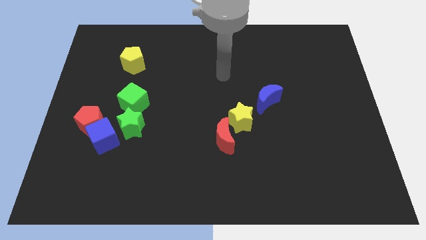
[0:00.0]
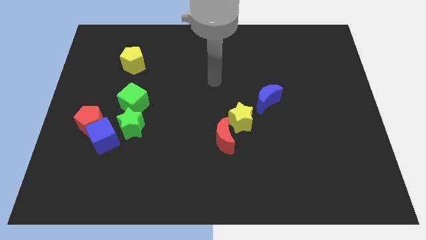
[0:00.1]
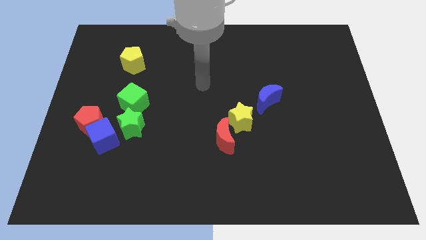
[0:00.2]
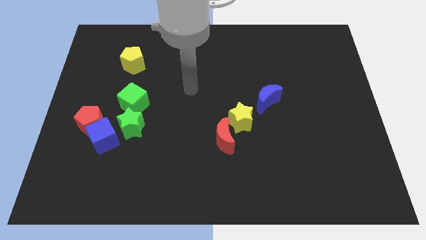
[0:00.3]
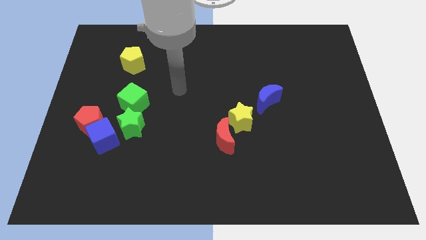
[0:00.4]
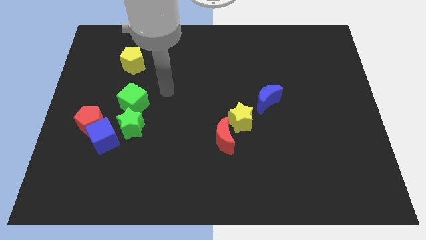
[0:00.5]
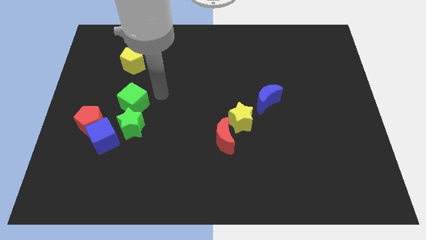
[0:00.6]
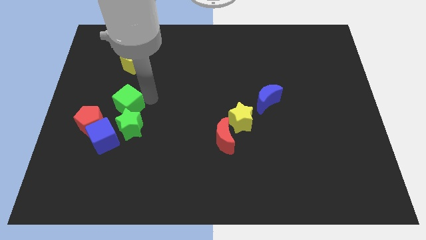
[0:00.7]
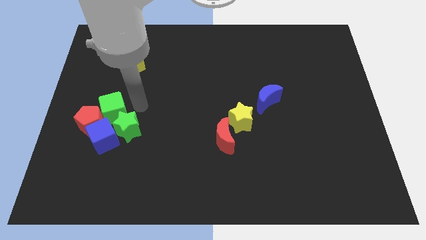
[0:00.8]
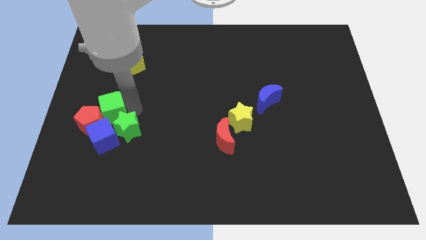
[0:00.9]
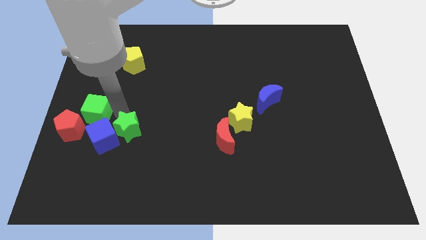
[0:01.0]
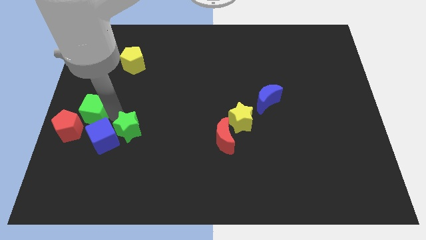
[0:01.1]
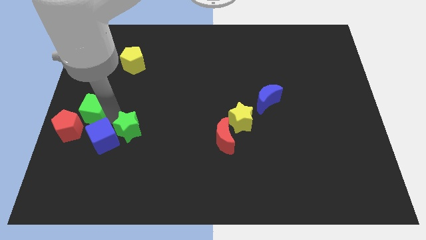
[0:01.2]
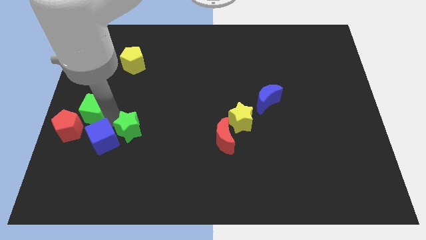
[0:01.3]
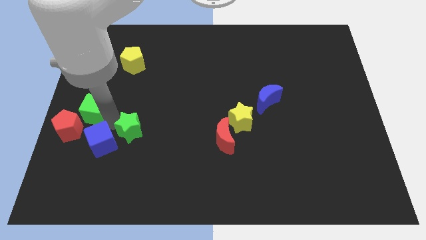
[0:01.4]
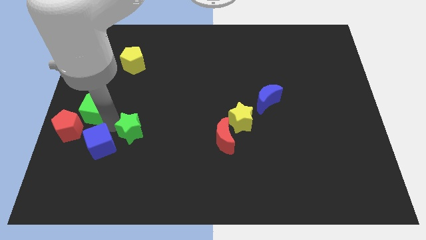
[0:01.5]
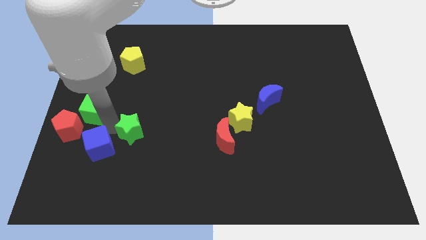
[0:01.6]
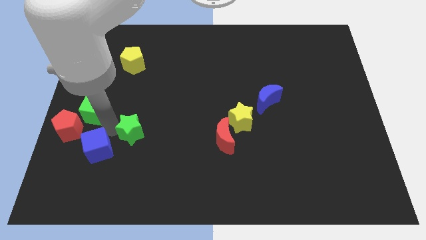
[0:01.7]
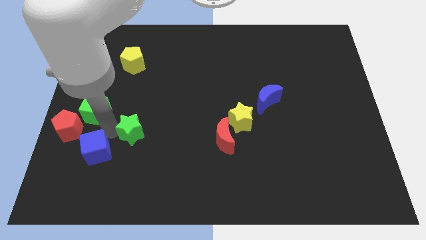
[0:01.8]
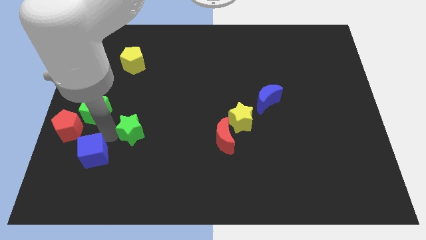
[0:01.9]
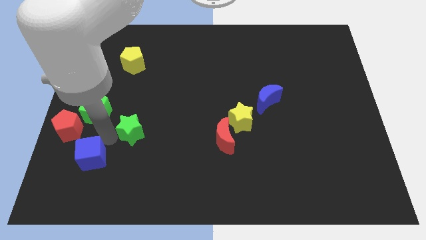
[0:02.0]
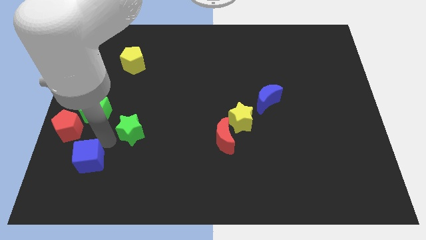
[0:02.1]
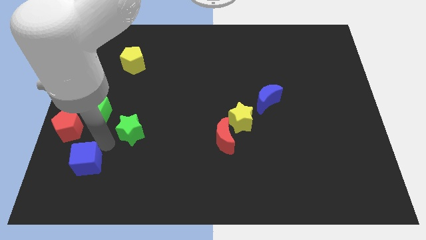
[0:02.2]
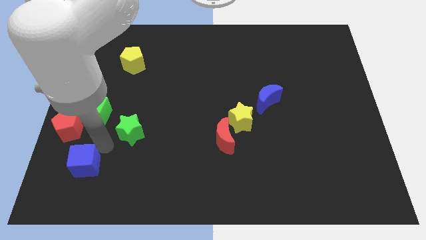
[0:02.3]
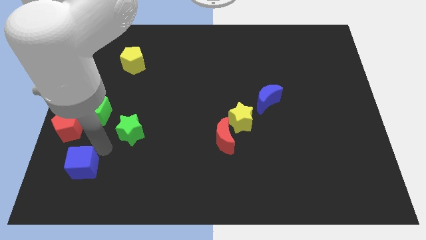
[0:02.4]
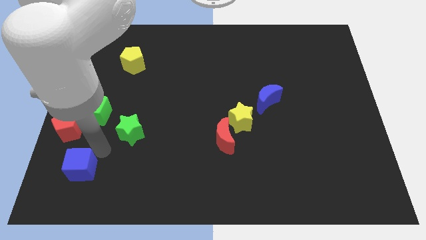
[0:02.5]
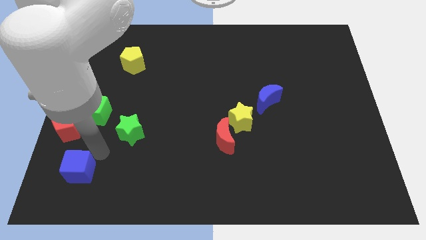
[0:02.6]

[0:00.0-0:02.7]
move the blue cube away from the red pentagon and green star

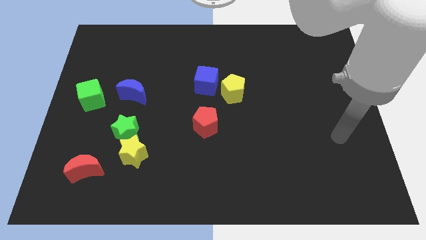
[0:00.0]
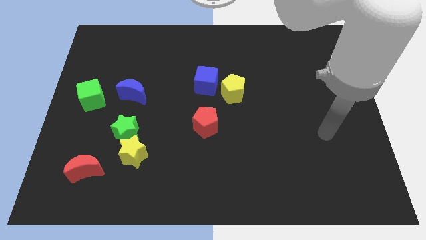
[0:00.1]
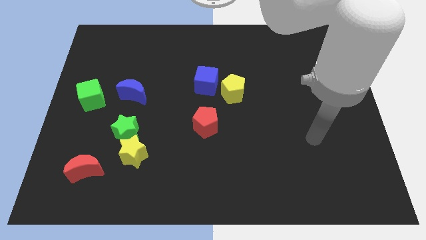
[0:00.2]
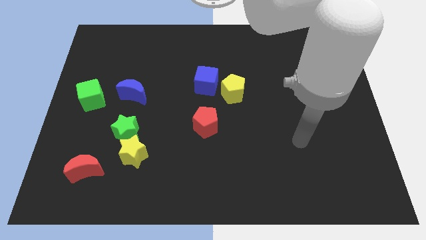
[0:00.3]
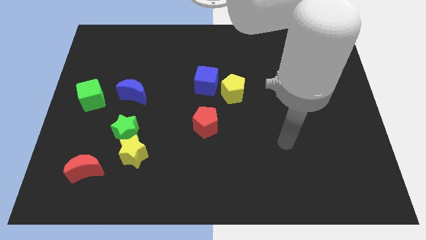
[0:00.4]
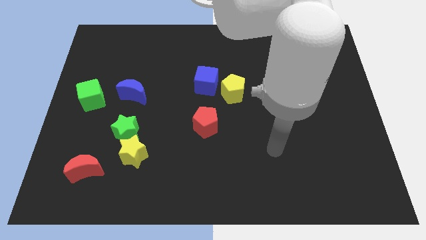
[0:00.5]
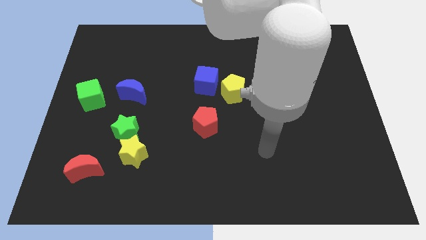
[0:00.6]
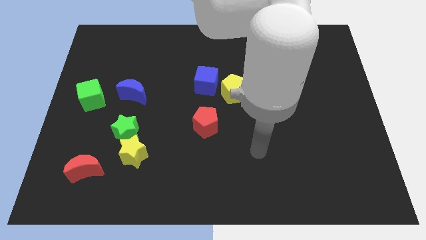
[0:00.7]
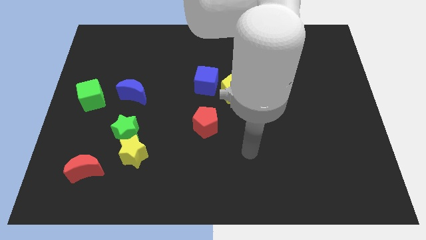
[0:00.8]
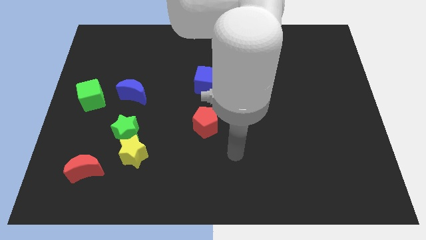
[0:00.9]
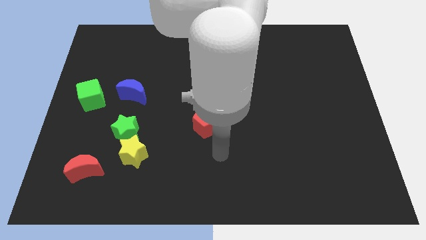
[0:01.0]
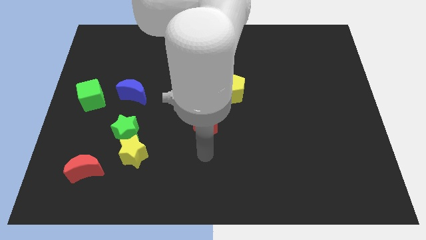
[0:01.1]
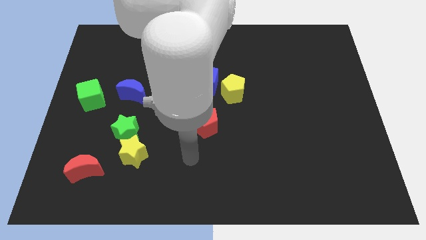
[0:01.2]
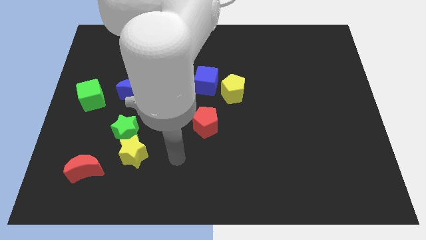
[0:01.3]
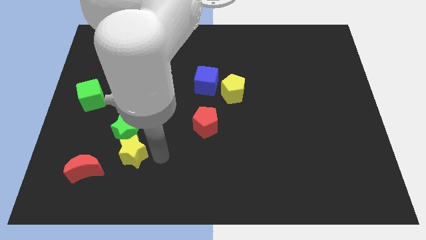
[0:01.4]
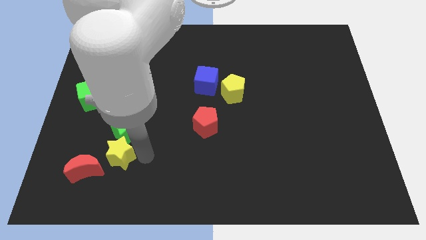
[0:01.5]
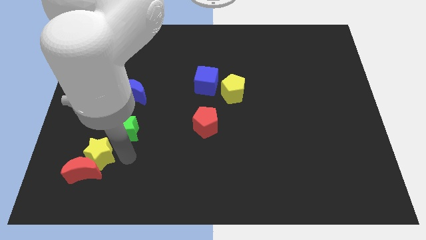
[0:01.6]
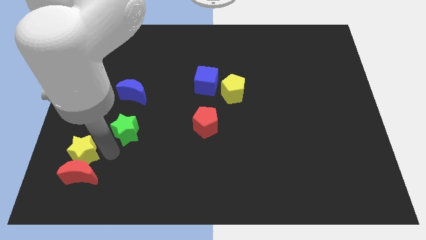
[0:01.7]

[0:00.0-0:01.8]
move the green star away from the yellow star

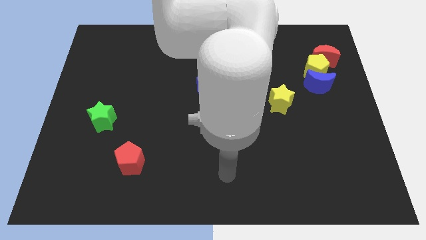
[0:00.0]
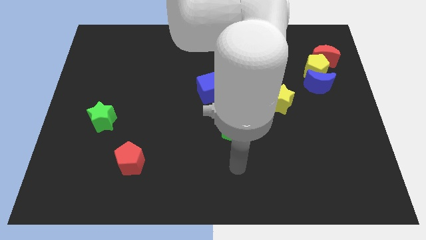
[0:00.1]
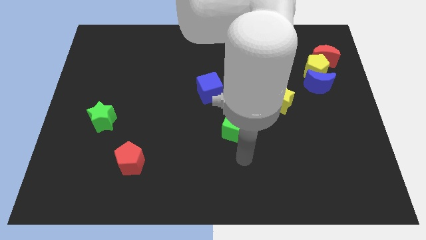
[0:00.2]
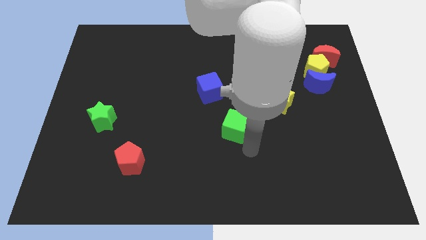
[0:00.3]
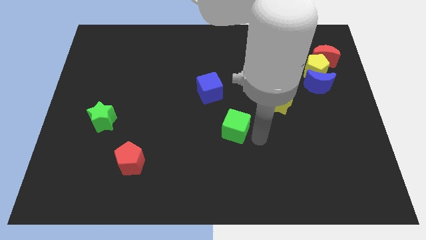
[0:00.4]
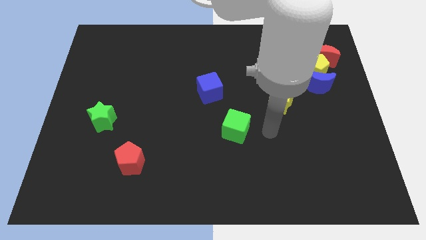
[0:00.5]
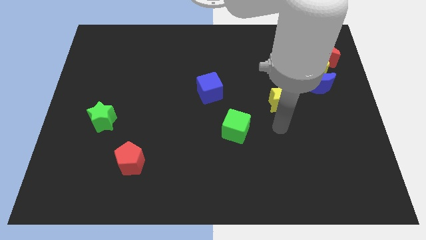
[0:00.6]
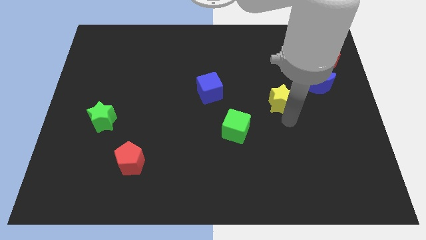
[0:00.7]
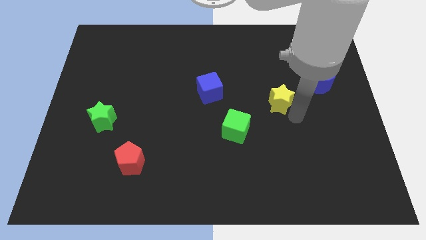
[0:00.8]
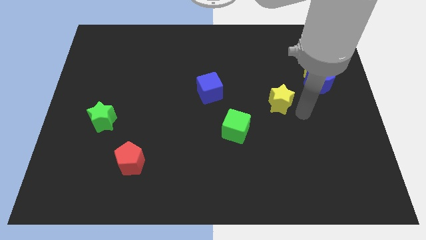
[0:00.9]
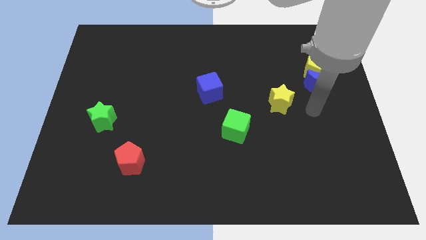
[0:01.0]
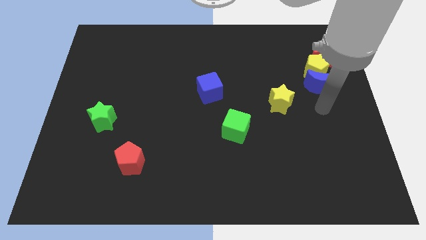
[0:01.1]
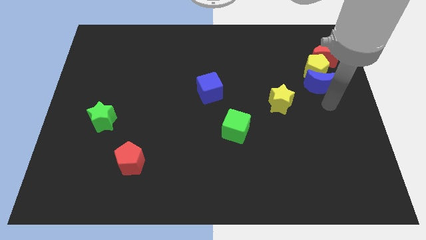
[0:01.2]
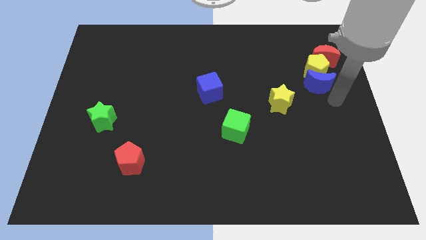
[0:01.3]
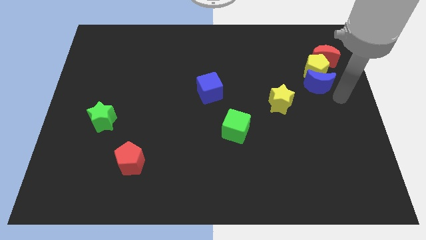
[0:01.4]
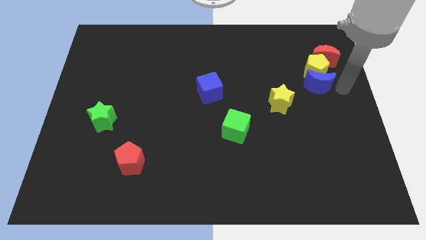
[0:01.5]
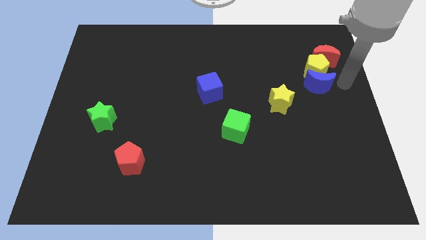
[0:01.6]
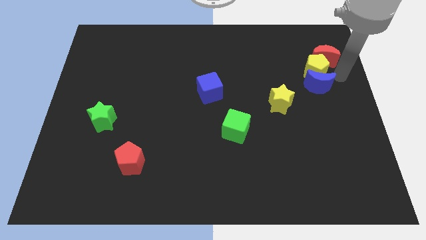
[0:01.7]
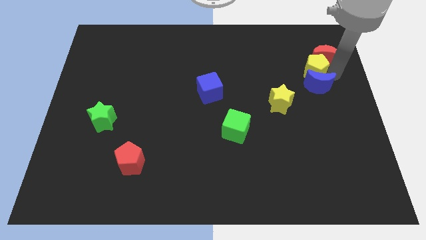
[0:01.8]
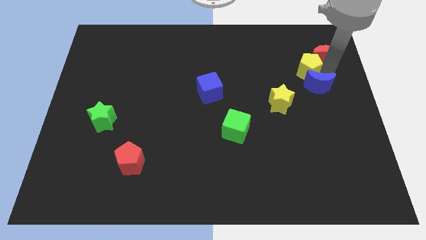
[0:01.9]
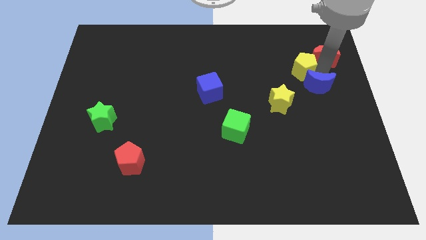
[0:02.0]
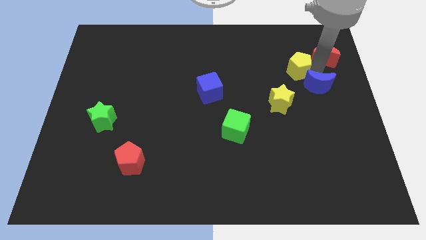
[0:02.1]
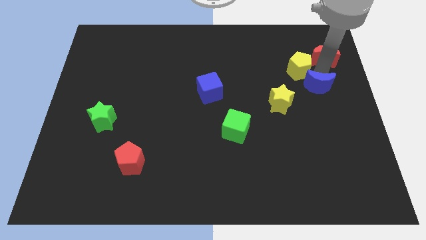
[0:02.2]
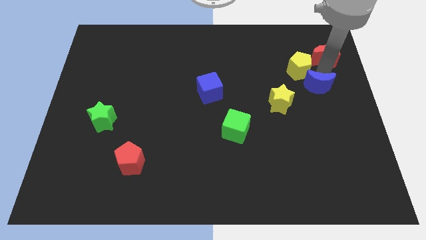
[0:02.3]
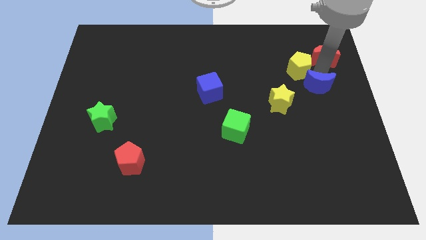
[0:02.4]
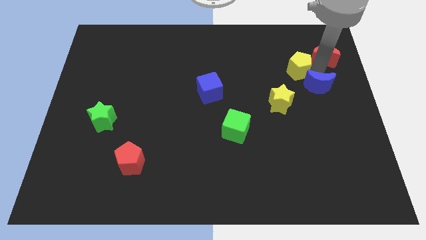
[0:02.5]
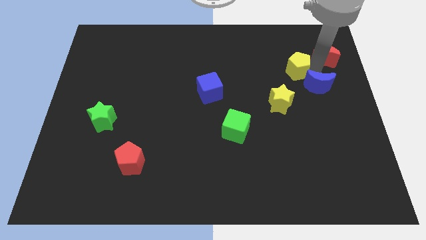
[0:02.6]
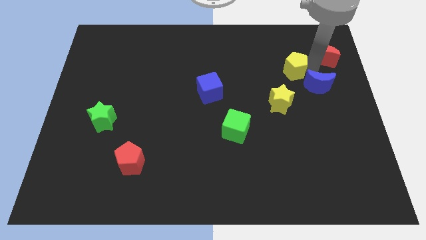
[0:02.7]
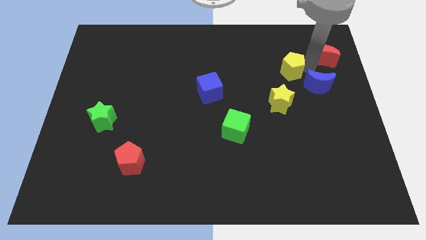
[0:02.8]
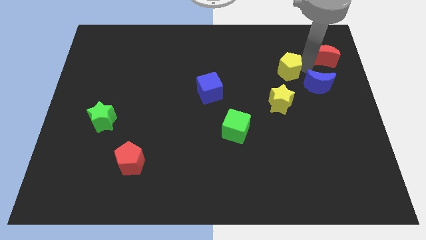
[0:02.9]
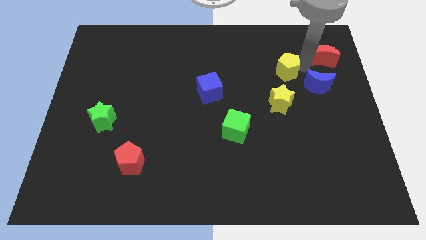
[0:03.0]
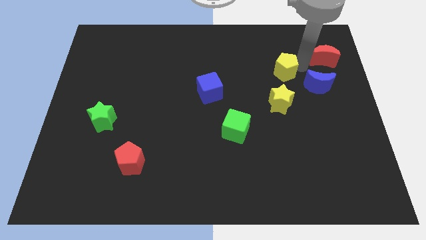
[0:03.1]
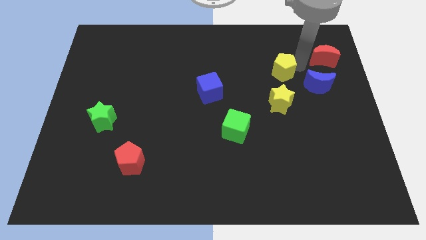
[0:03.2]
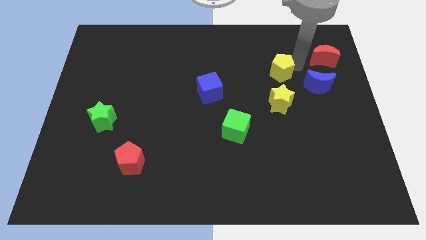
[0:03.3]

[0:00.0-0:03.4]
pull the yellow pentagon apart from the blue moon and red moon

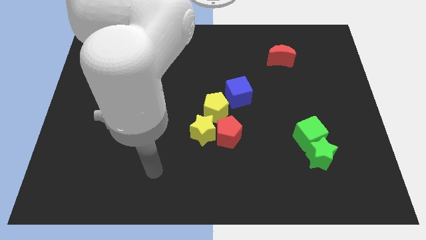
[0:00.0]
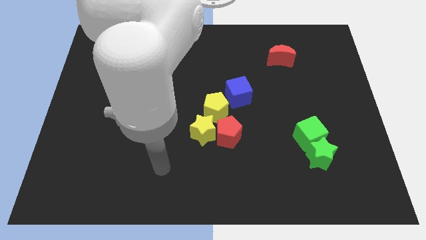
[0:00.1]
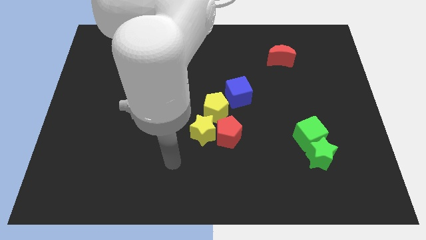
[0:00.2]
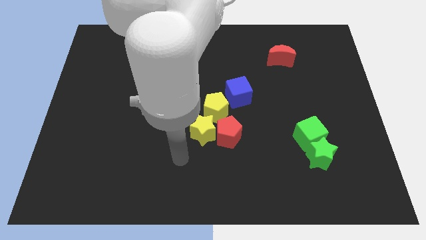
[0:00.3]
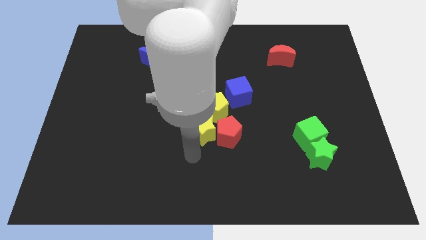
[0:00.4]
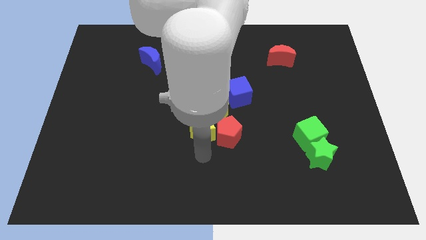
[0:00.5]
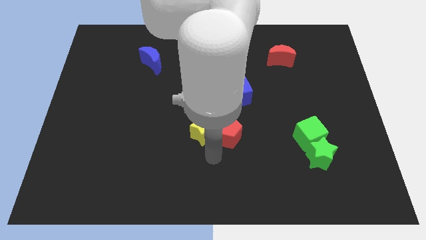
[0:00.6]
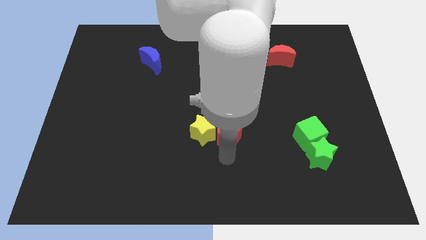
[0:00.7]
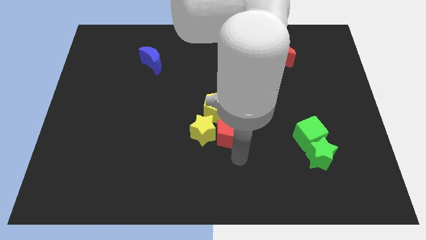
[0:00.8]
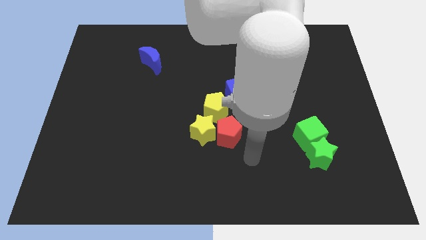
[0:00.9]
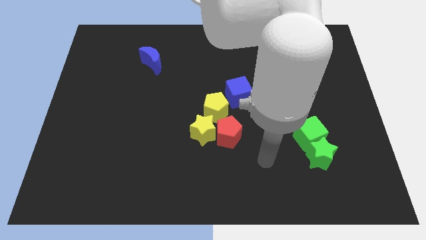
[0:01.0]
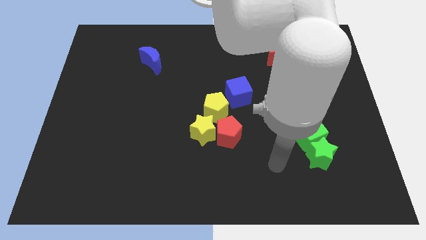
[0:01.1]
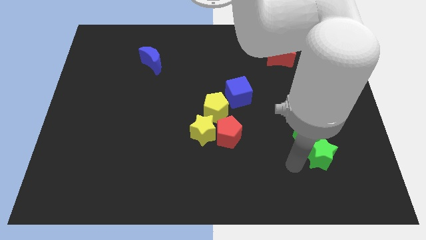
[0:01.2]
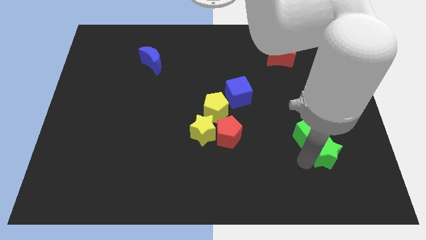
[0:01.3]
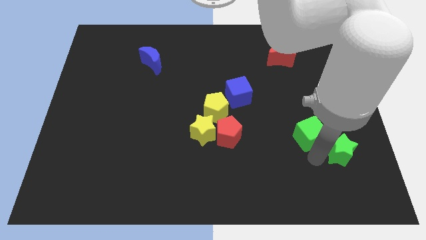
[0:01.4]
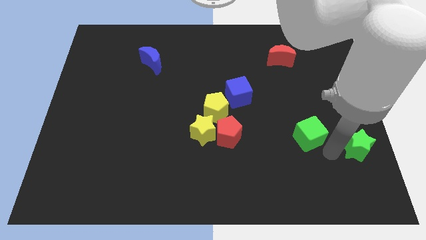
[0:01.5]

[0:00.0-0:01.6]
separate the green cube from the green star
